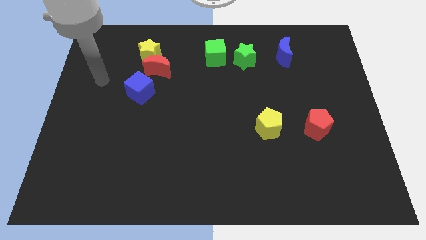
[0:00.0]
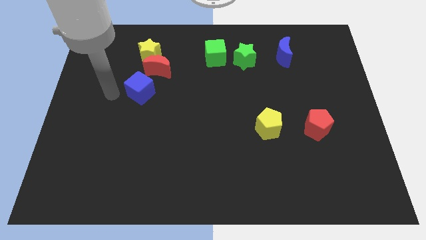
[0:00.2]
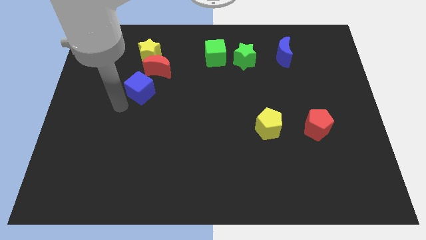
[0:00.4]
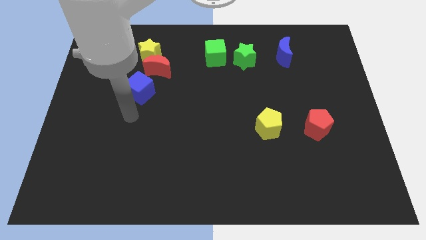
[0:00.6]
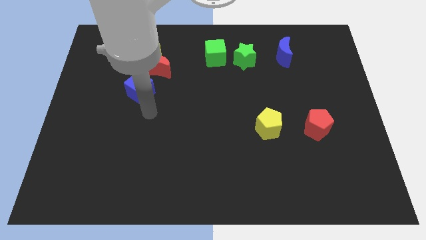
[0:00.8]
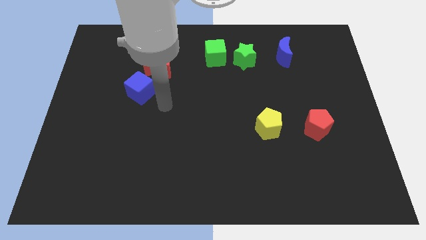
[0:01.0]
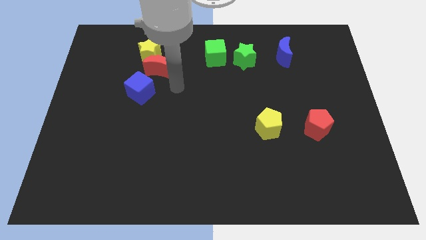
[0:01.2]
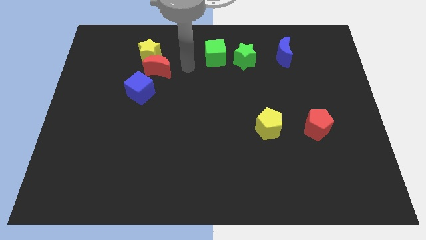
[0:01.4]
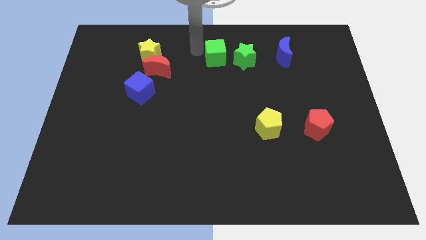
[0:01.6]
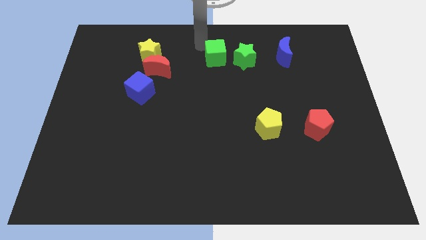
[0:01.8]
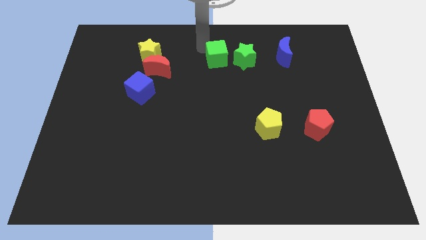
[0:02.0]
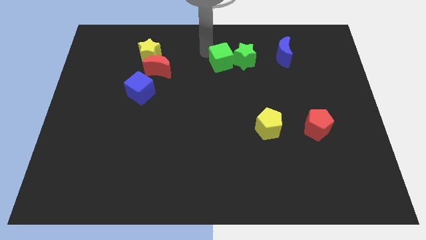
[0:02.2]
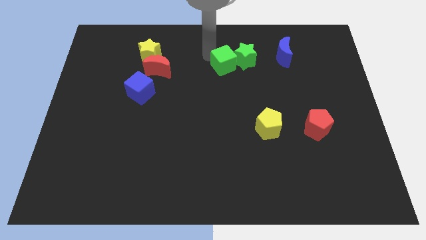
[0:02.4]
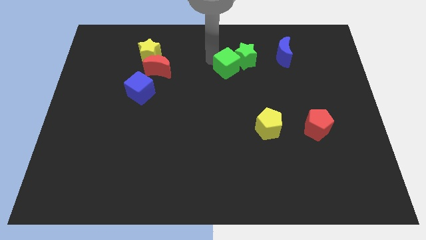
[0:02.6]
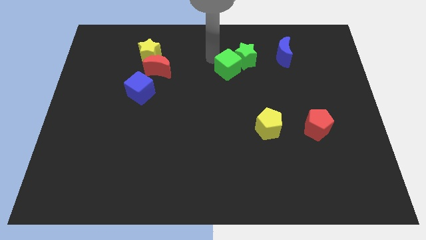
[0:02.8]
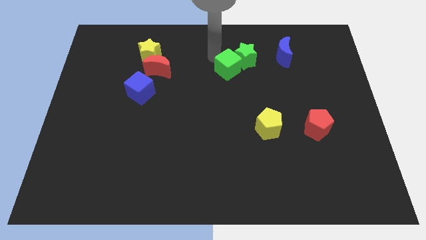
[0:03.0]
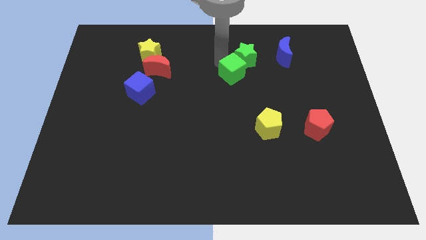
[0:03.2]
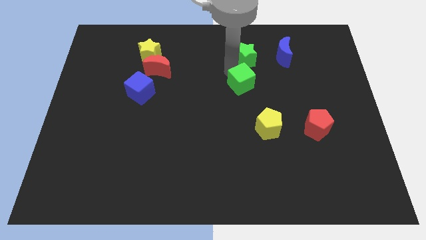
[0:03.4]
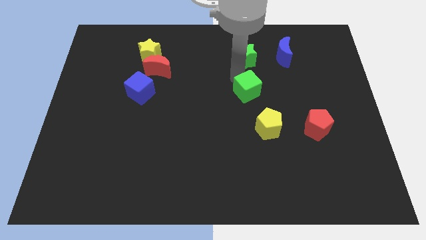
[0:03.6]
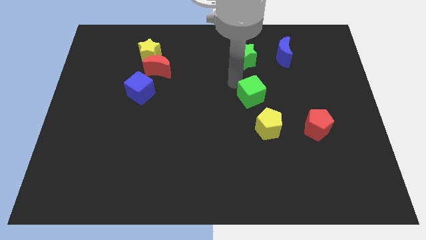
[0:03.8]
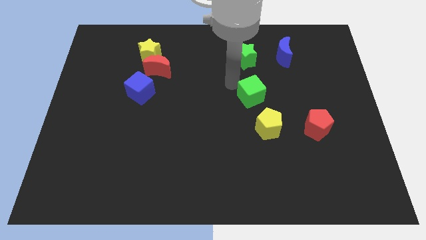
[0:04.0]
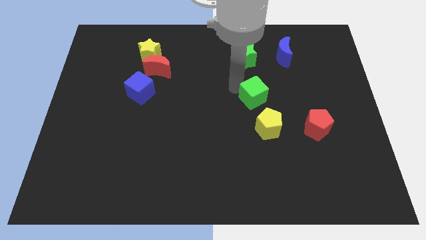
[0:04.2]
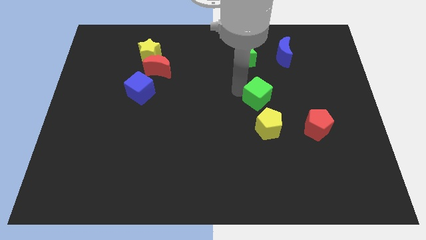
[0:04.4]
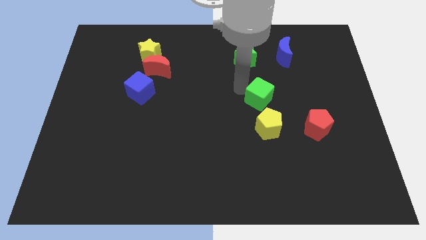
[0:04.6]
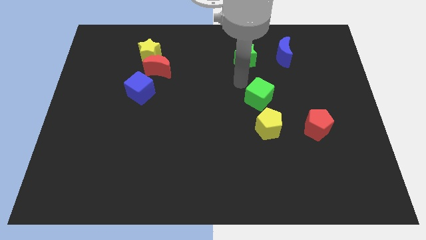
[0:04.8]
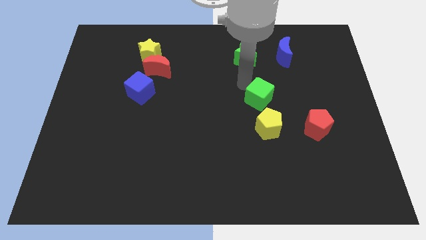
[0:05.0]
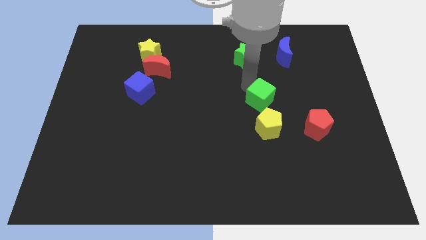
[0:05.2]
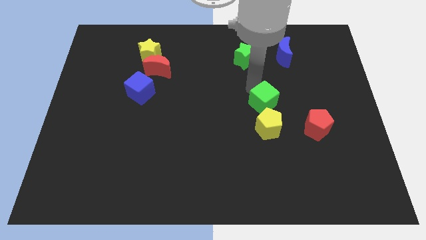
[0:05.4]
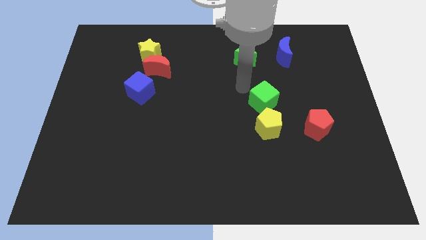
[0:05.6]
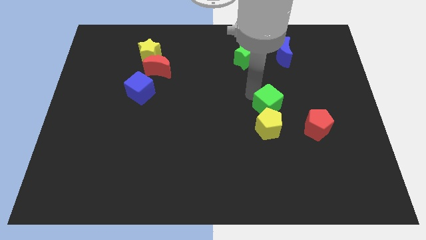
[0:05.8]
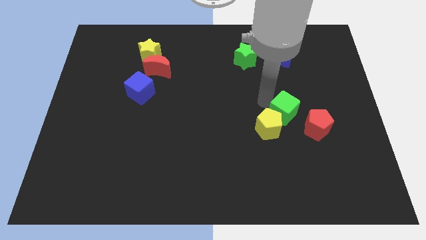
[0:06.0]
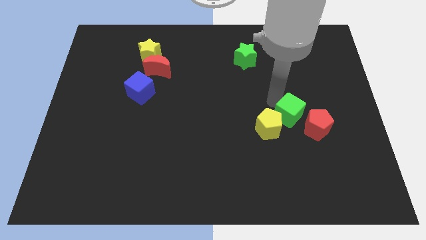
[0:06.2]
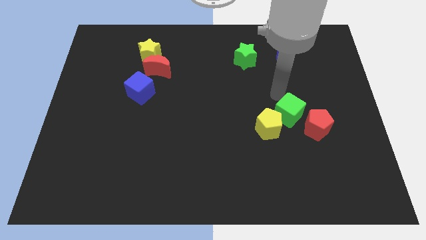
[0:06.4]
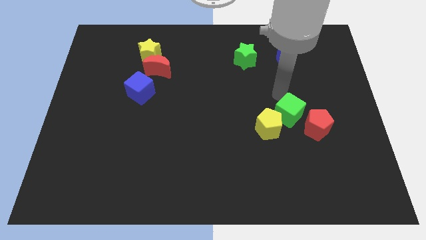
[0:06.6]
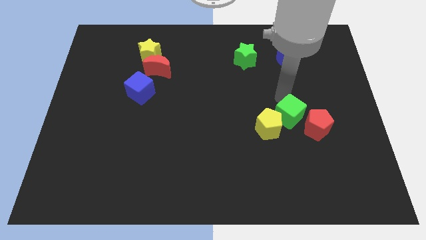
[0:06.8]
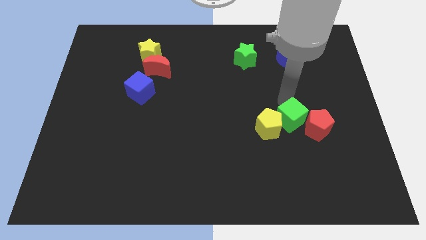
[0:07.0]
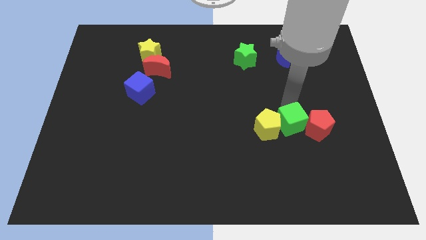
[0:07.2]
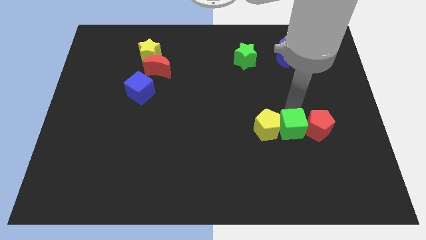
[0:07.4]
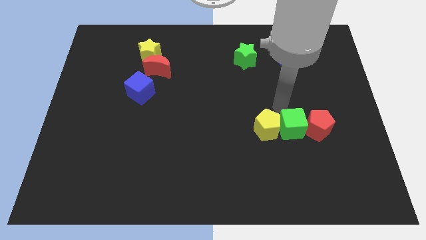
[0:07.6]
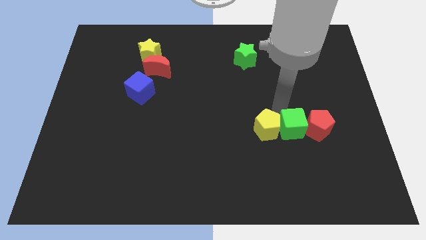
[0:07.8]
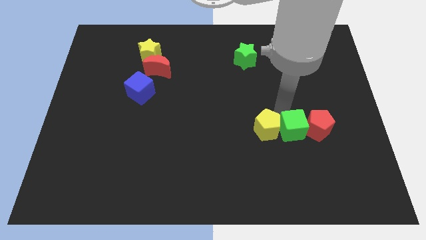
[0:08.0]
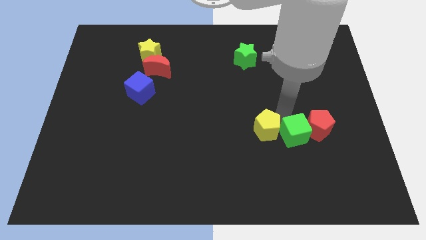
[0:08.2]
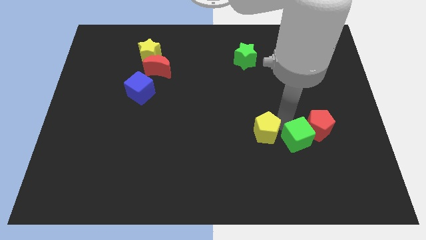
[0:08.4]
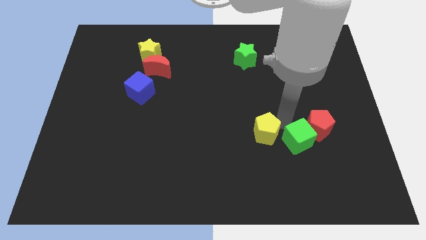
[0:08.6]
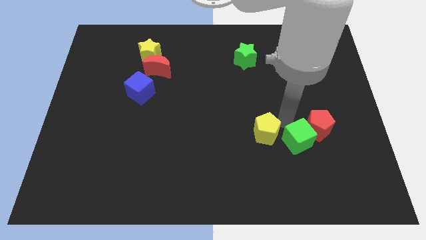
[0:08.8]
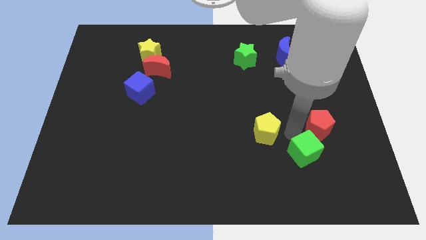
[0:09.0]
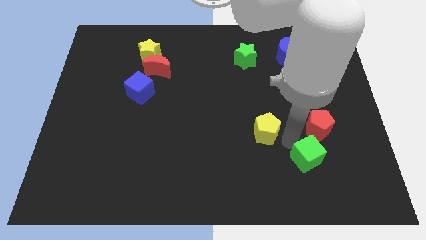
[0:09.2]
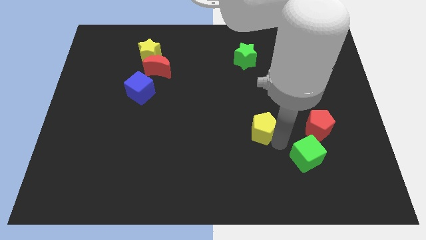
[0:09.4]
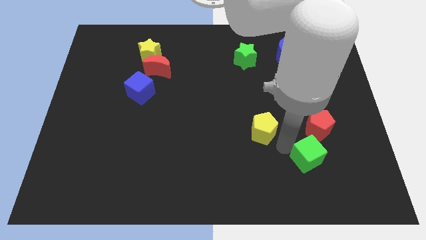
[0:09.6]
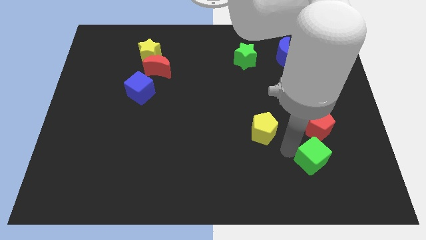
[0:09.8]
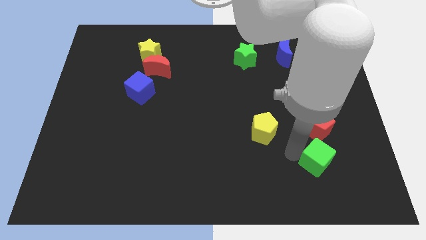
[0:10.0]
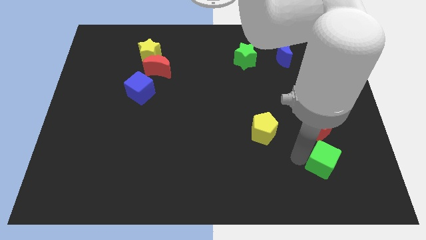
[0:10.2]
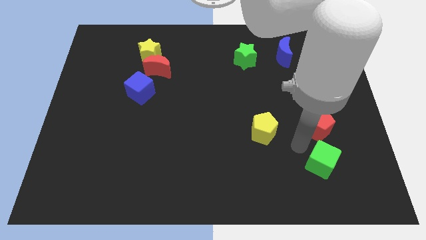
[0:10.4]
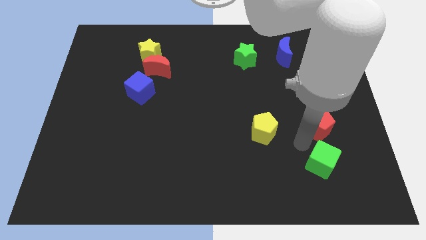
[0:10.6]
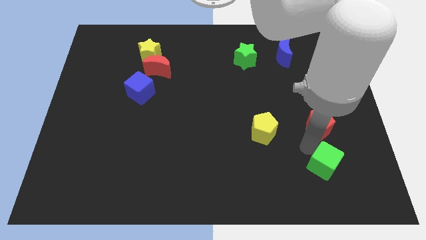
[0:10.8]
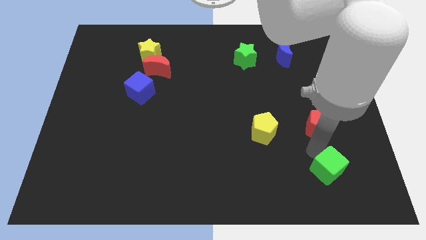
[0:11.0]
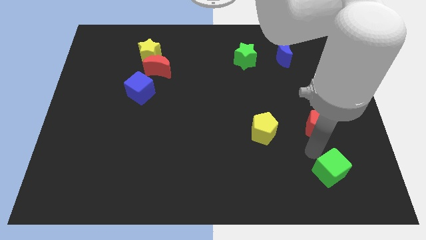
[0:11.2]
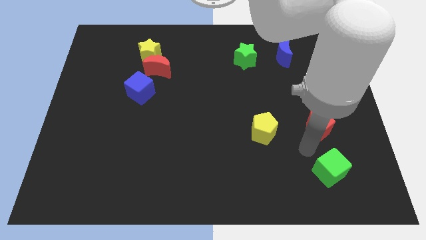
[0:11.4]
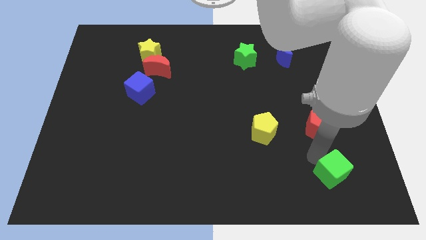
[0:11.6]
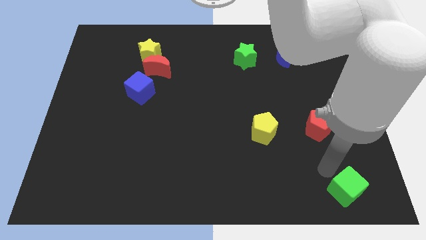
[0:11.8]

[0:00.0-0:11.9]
push the green cube to the bottom right of the board
